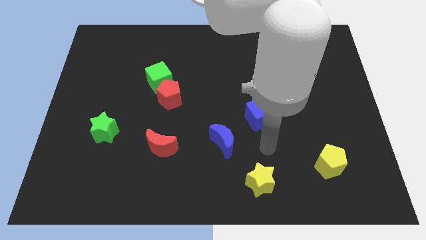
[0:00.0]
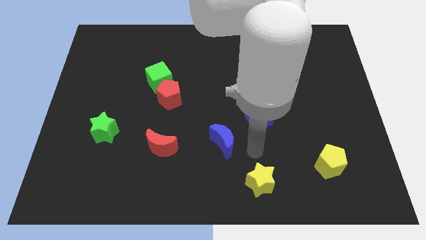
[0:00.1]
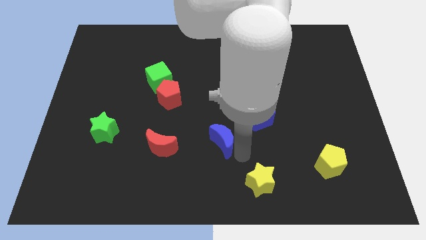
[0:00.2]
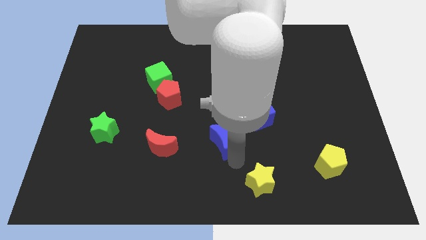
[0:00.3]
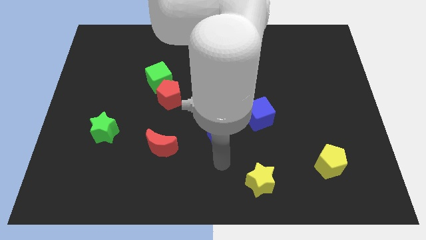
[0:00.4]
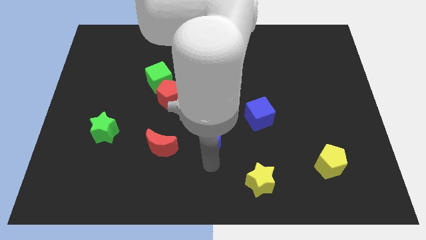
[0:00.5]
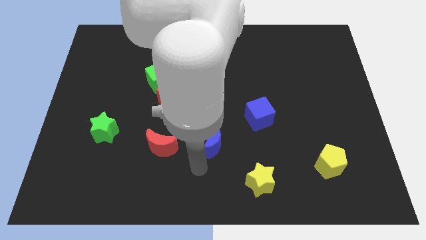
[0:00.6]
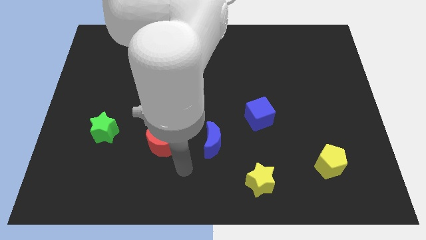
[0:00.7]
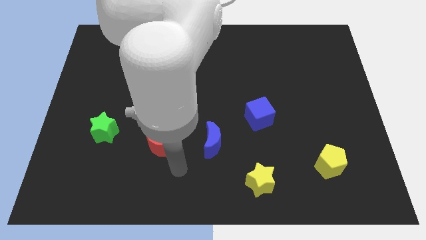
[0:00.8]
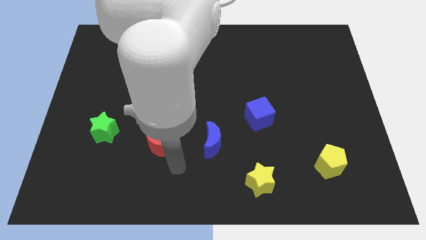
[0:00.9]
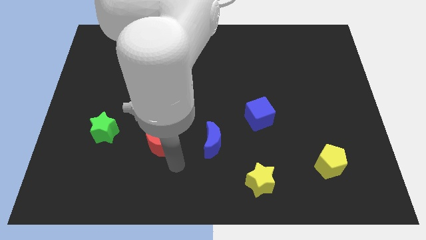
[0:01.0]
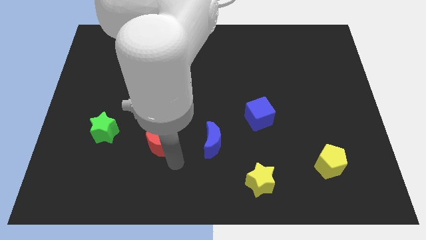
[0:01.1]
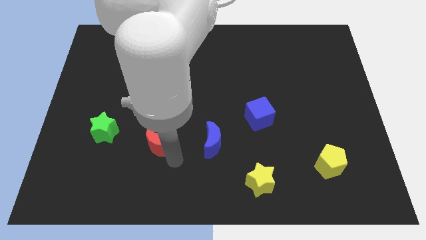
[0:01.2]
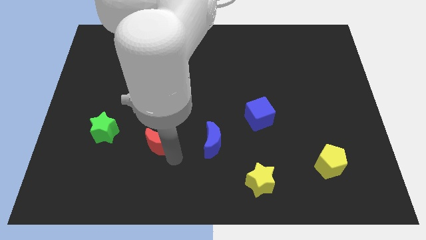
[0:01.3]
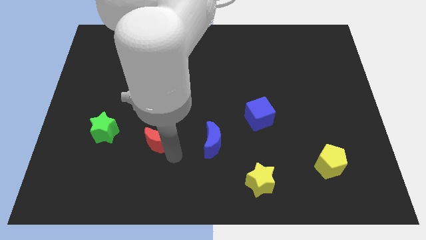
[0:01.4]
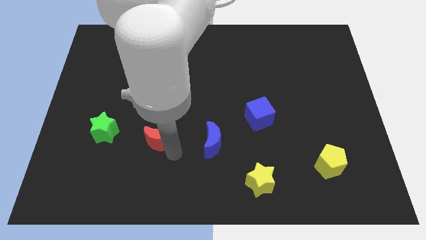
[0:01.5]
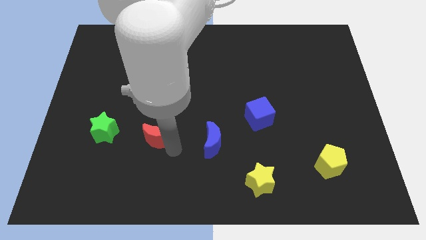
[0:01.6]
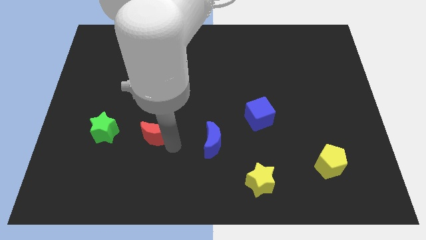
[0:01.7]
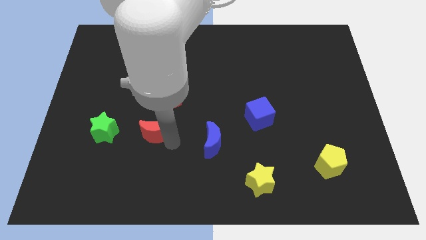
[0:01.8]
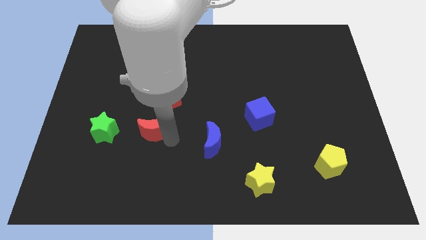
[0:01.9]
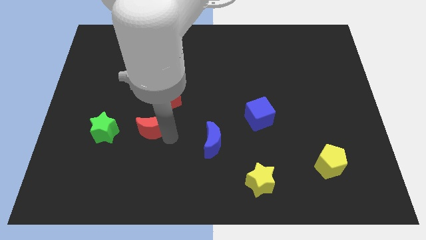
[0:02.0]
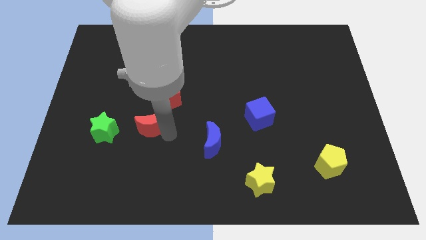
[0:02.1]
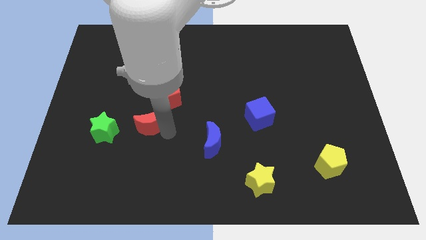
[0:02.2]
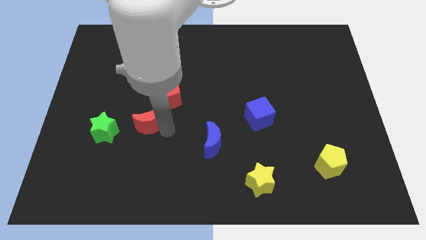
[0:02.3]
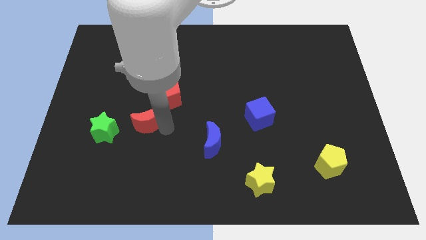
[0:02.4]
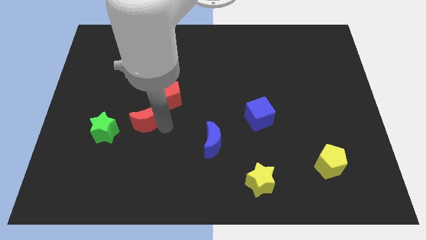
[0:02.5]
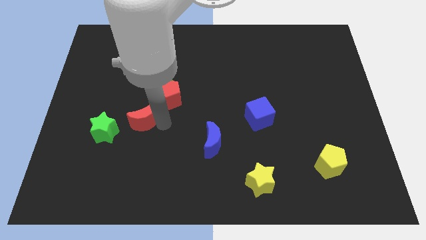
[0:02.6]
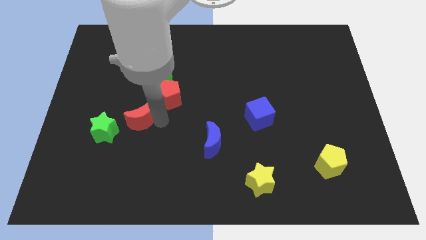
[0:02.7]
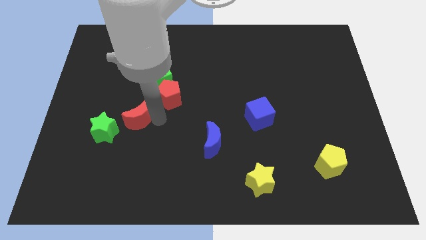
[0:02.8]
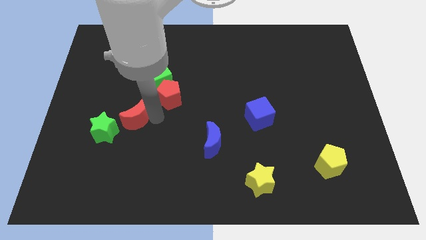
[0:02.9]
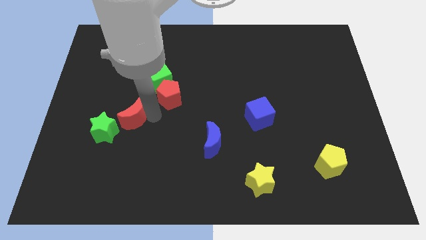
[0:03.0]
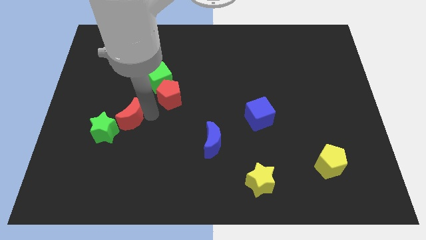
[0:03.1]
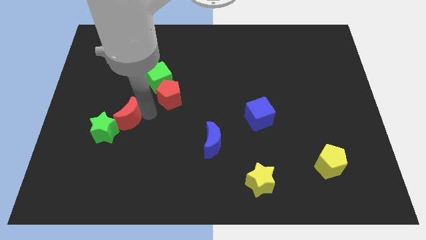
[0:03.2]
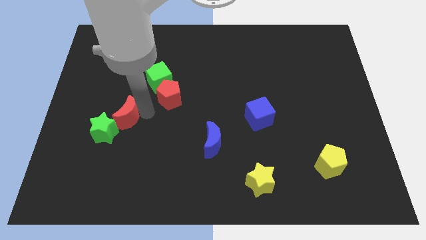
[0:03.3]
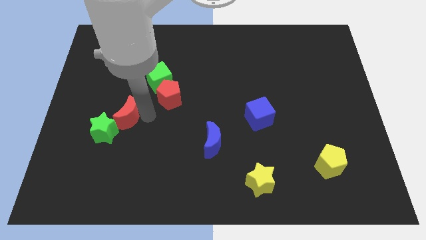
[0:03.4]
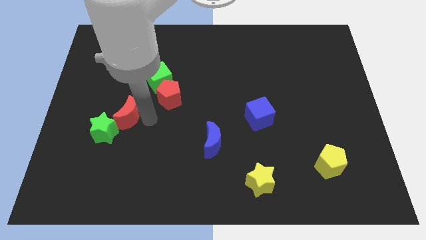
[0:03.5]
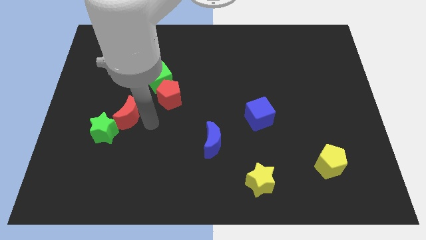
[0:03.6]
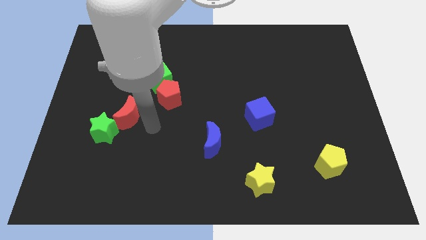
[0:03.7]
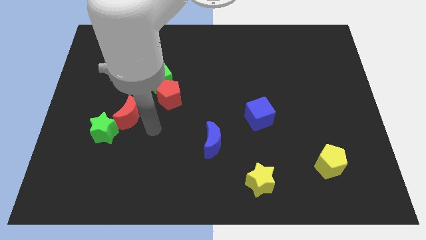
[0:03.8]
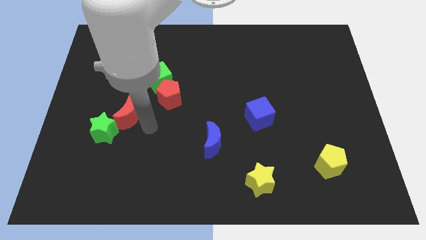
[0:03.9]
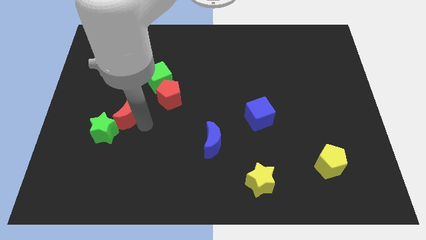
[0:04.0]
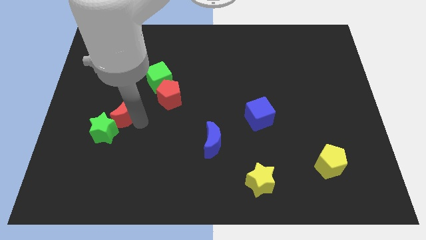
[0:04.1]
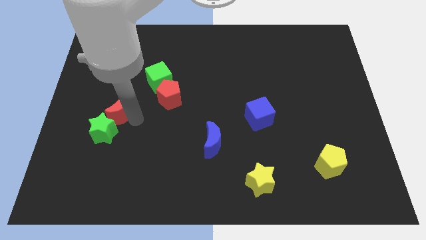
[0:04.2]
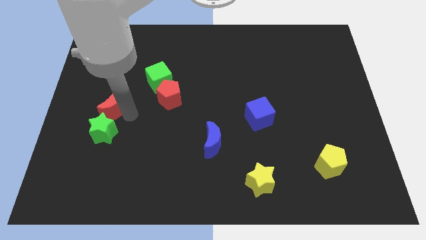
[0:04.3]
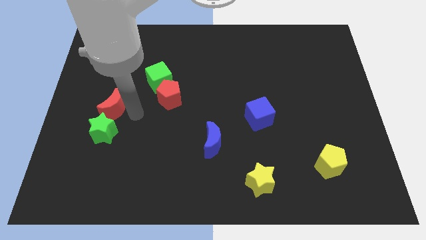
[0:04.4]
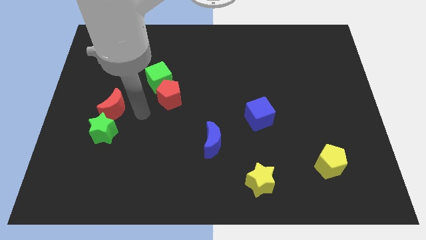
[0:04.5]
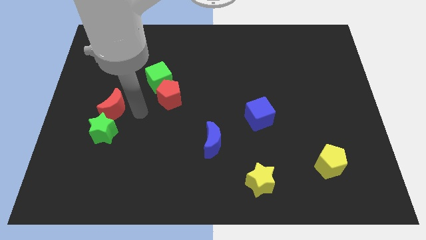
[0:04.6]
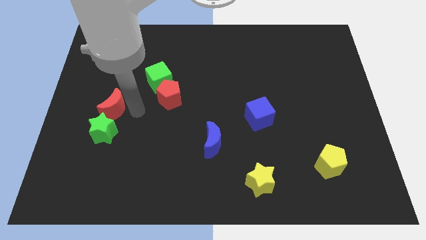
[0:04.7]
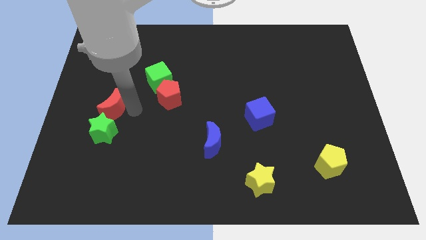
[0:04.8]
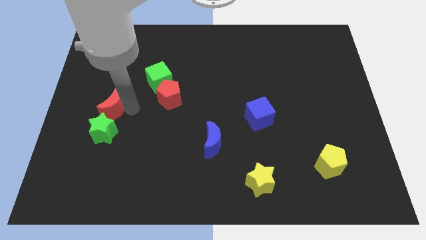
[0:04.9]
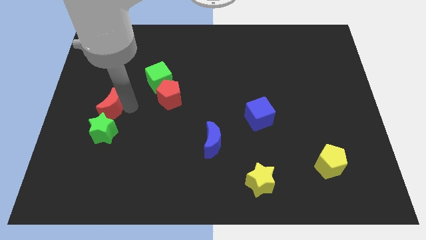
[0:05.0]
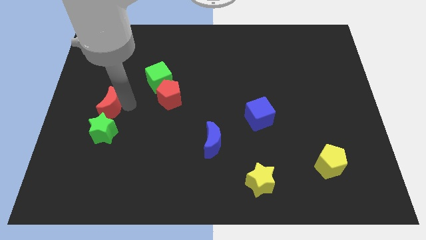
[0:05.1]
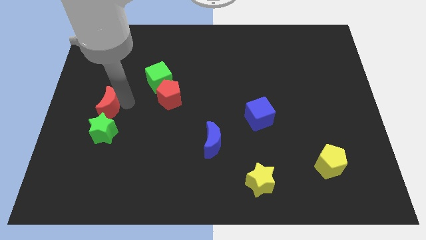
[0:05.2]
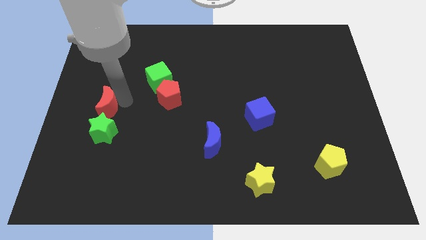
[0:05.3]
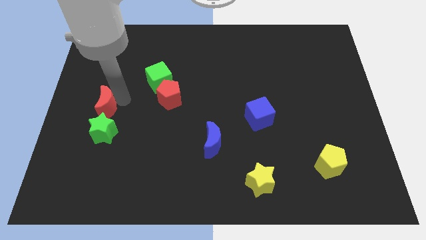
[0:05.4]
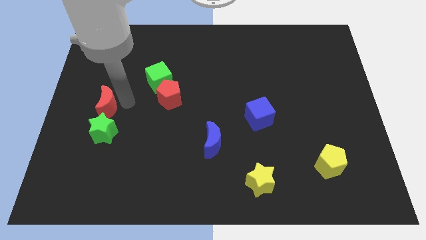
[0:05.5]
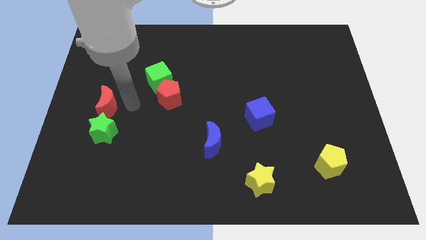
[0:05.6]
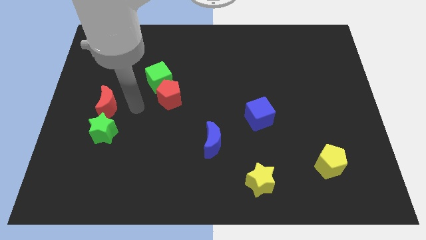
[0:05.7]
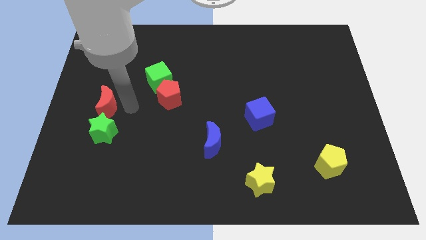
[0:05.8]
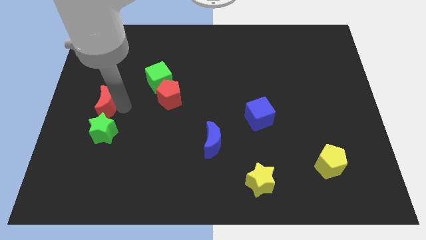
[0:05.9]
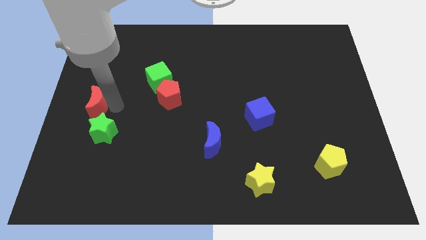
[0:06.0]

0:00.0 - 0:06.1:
move the red moon to the center left

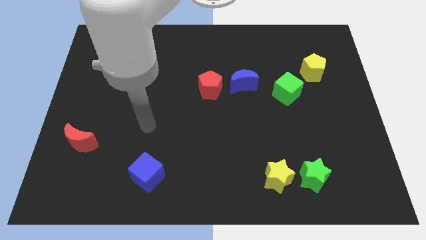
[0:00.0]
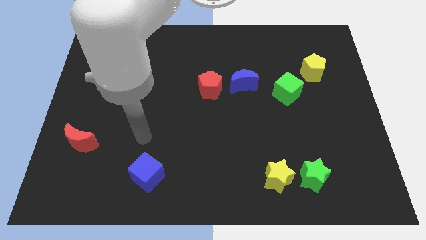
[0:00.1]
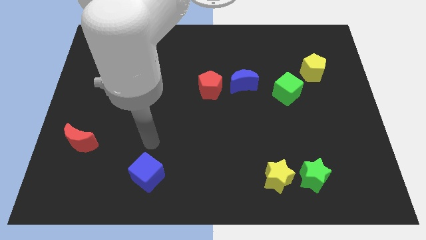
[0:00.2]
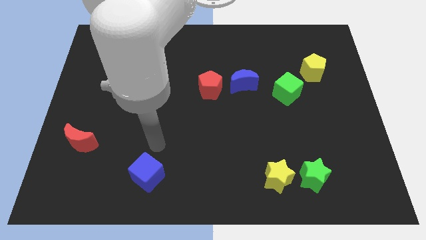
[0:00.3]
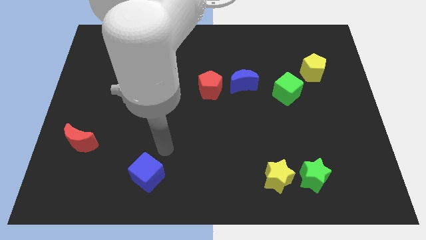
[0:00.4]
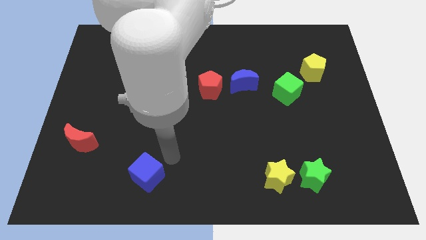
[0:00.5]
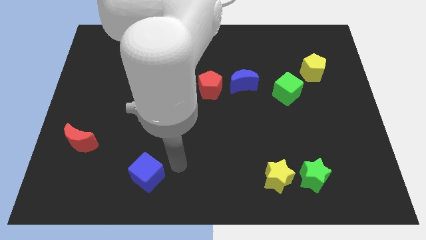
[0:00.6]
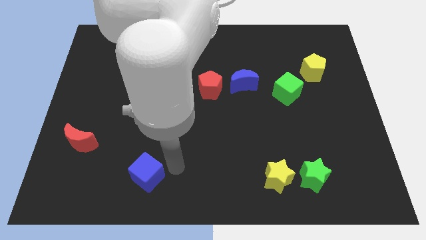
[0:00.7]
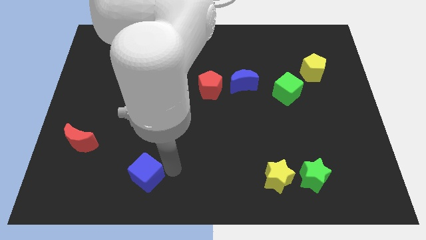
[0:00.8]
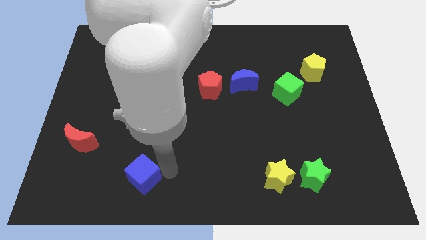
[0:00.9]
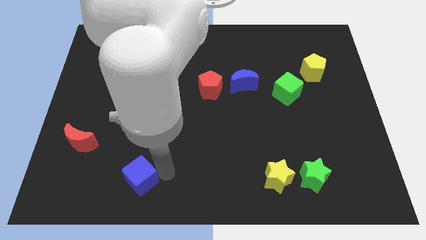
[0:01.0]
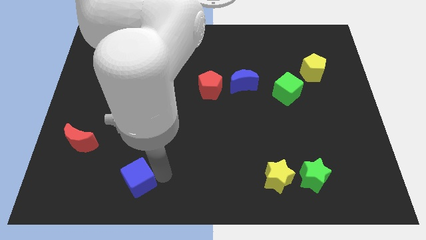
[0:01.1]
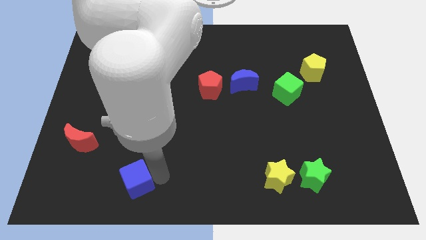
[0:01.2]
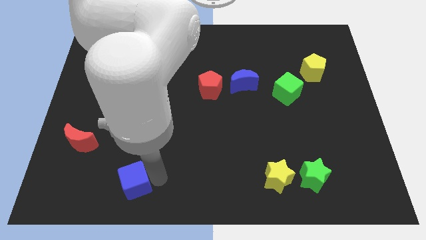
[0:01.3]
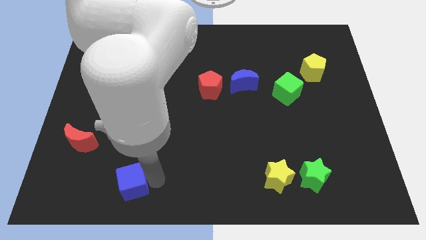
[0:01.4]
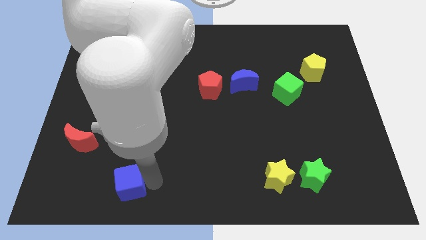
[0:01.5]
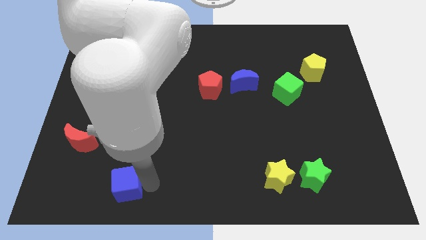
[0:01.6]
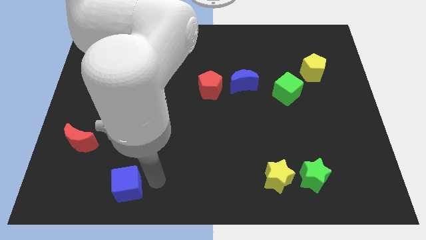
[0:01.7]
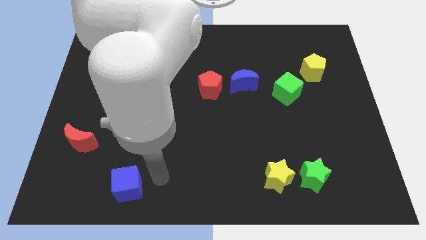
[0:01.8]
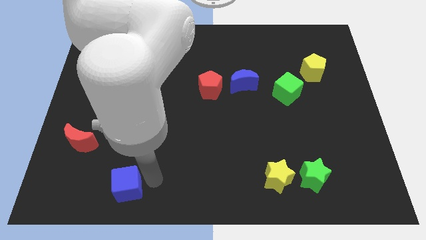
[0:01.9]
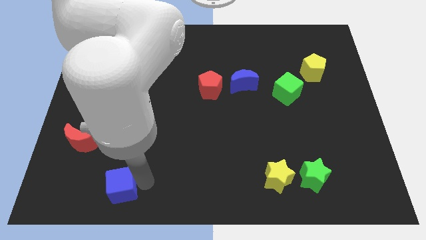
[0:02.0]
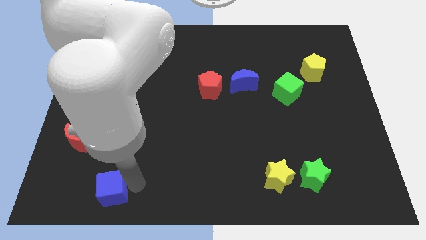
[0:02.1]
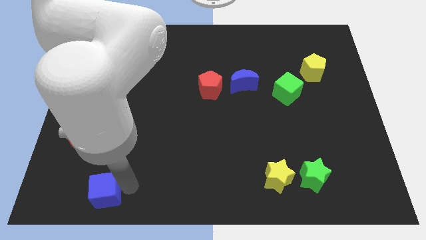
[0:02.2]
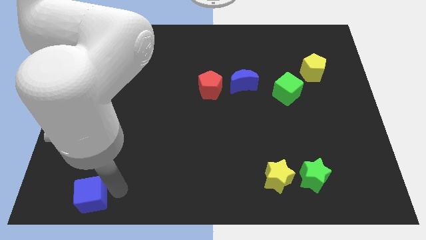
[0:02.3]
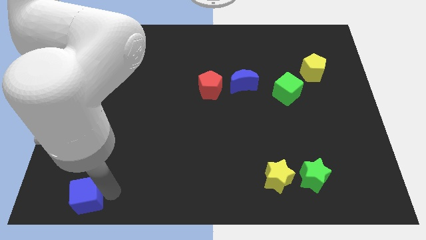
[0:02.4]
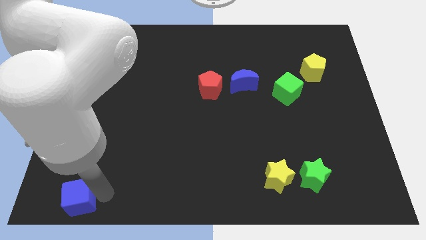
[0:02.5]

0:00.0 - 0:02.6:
move the blue cube to the bottom left of the board
